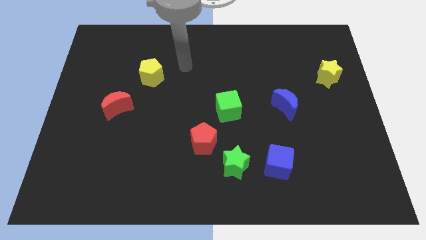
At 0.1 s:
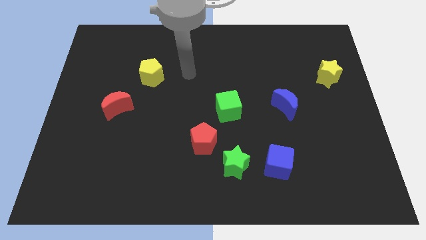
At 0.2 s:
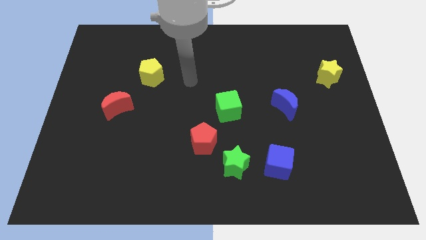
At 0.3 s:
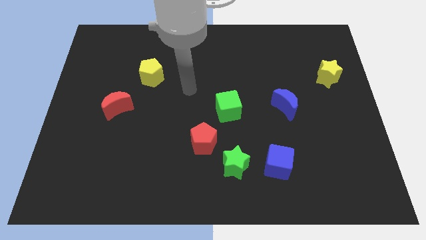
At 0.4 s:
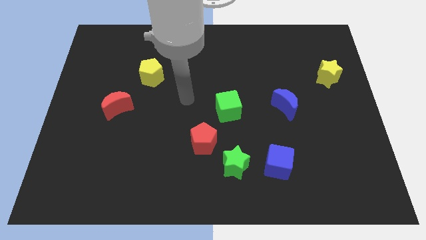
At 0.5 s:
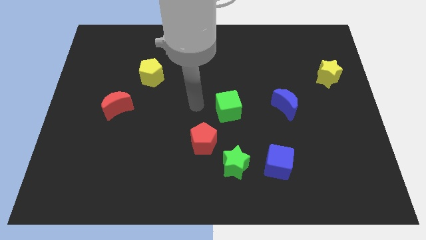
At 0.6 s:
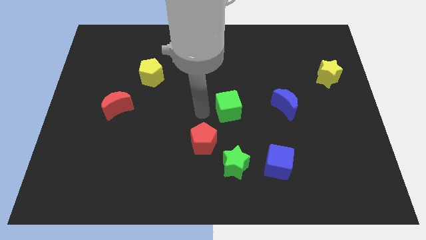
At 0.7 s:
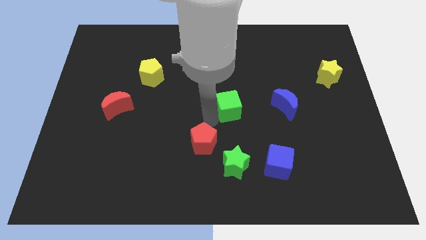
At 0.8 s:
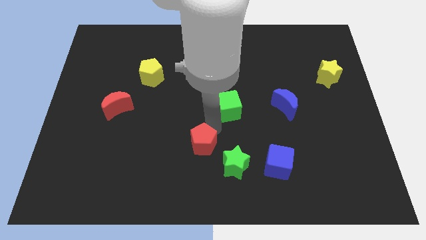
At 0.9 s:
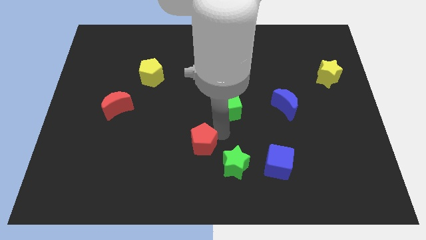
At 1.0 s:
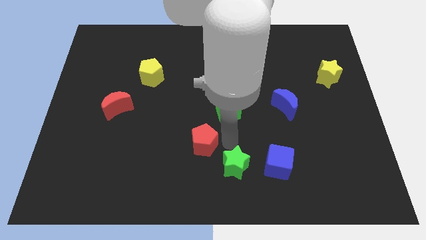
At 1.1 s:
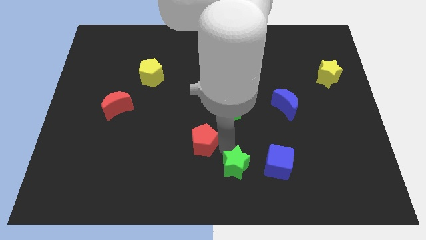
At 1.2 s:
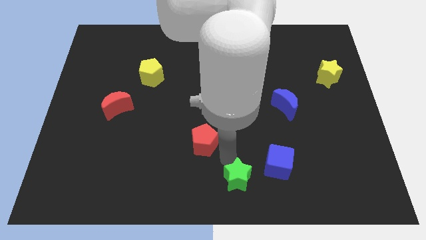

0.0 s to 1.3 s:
separate the red pentagon from the green star

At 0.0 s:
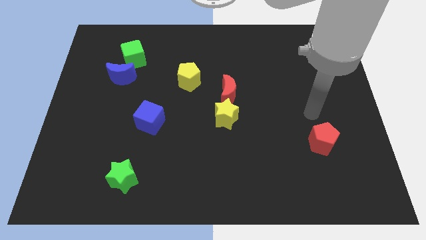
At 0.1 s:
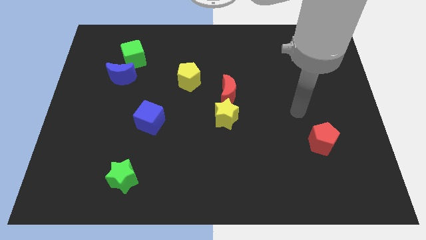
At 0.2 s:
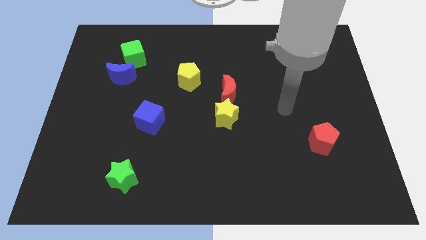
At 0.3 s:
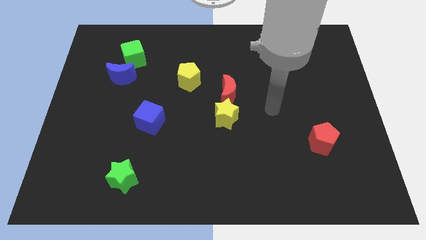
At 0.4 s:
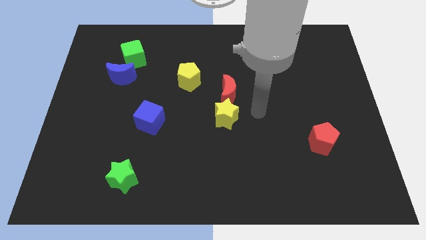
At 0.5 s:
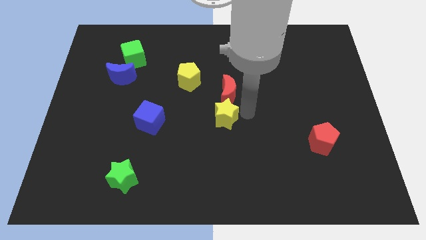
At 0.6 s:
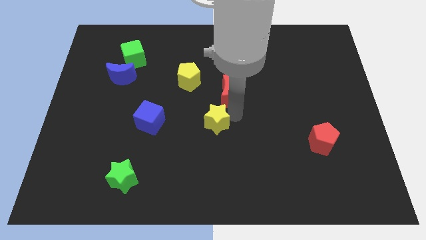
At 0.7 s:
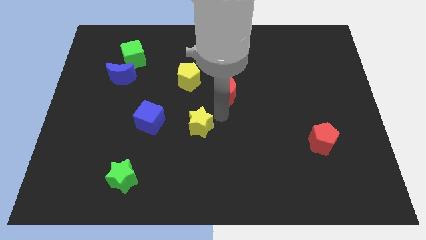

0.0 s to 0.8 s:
move the red moon away from the yellow star

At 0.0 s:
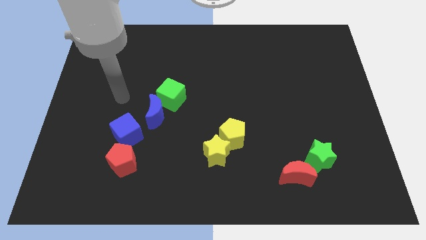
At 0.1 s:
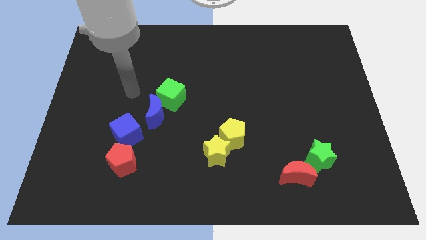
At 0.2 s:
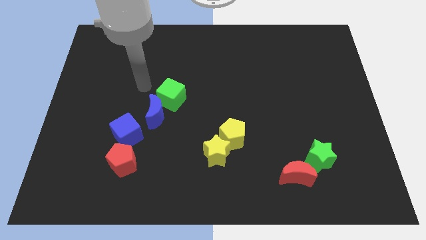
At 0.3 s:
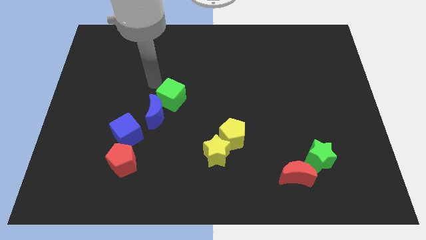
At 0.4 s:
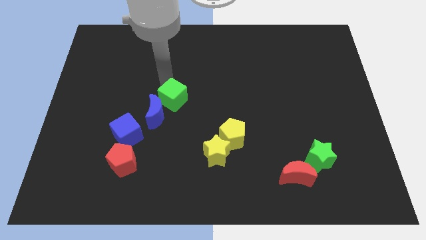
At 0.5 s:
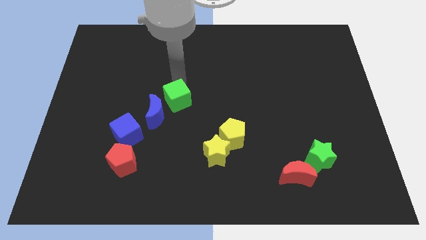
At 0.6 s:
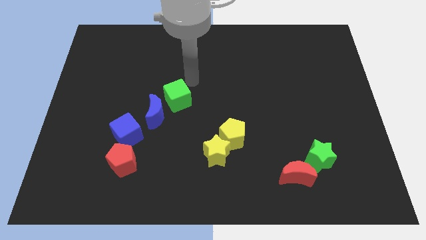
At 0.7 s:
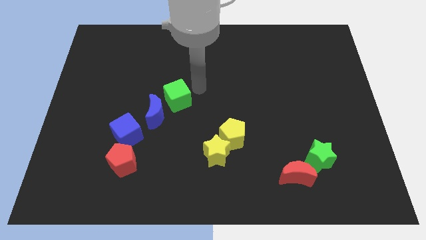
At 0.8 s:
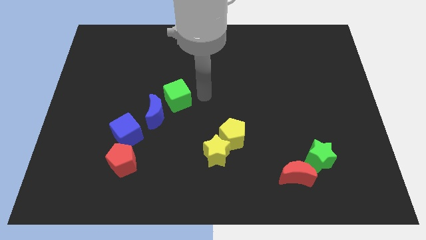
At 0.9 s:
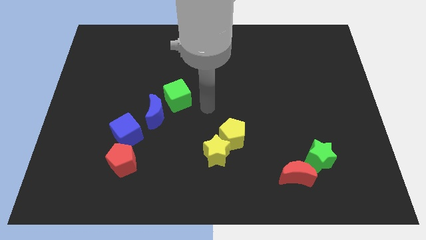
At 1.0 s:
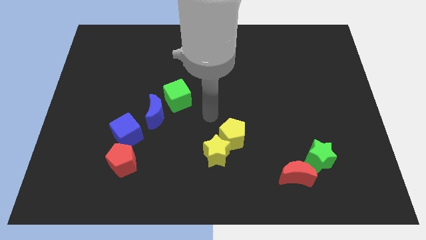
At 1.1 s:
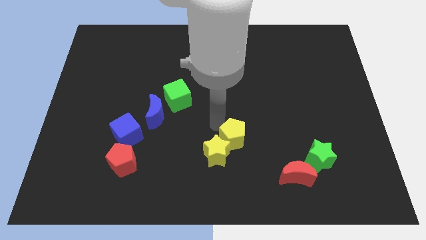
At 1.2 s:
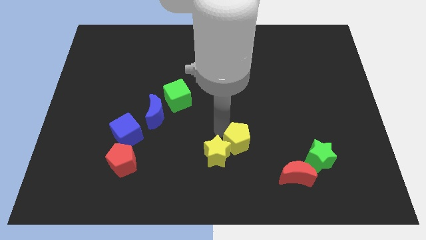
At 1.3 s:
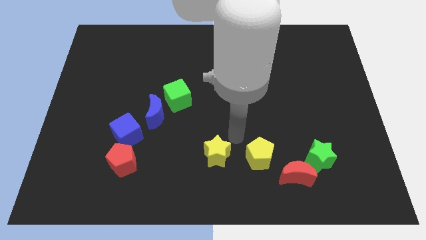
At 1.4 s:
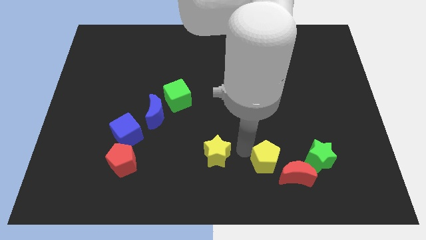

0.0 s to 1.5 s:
move the yellow star away from the yellow pentagon

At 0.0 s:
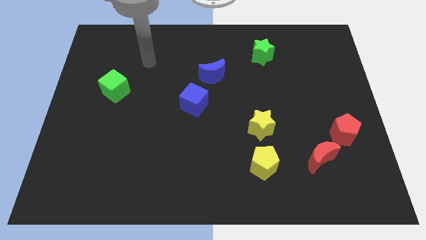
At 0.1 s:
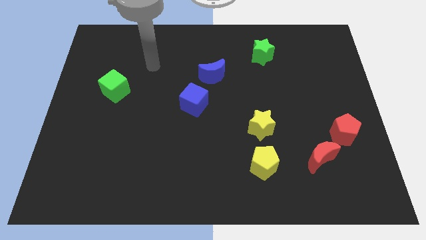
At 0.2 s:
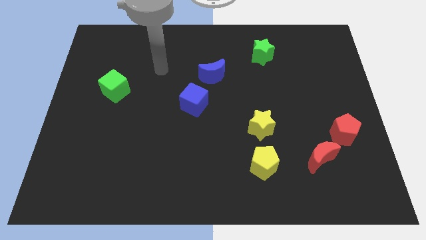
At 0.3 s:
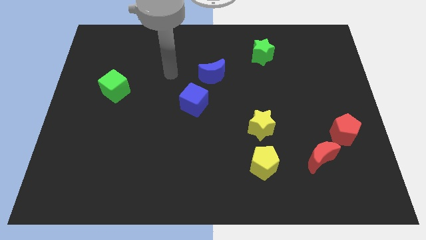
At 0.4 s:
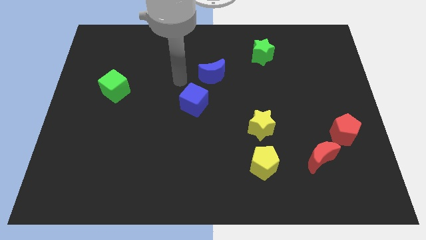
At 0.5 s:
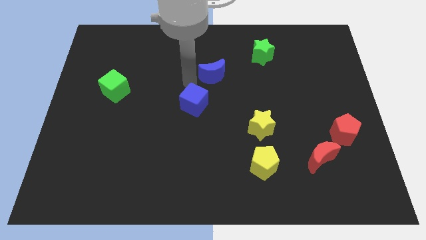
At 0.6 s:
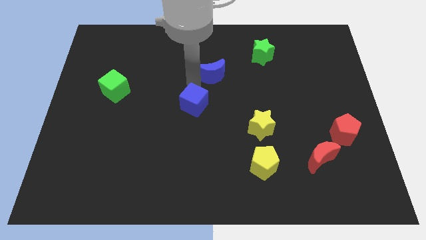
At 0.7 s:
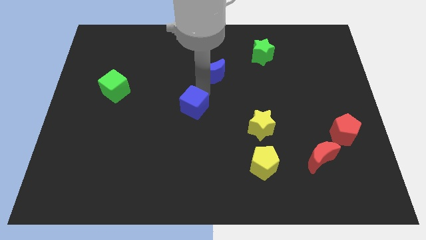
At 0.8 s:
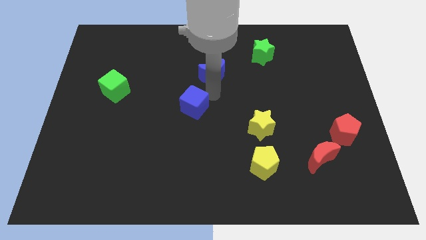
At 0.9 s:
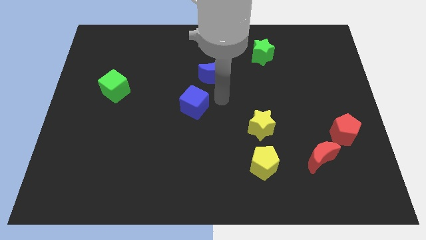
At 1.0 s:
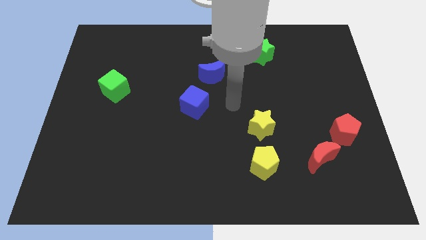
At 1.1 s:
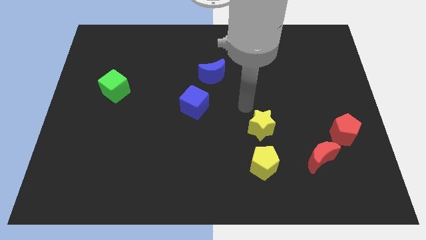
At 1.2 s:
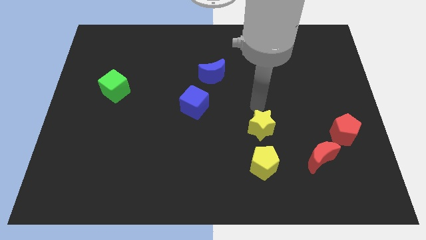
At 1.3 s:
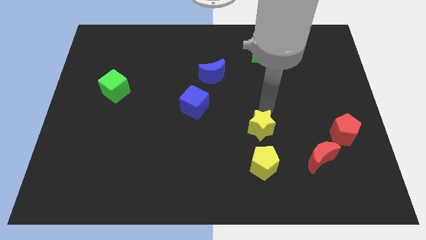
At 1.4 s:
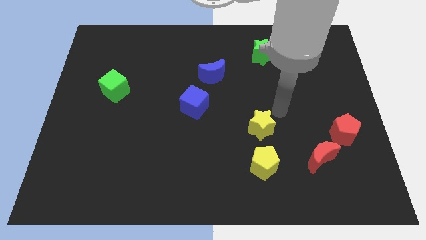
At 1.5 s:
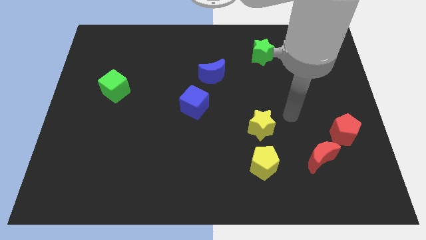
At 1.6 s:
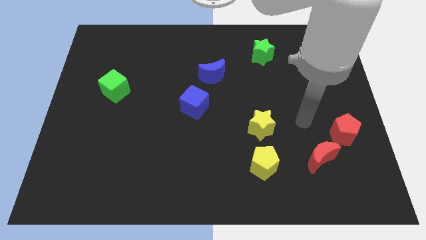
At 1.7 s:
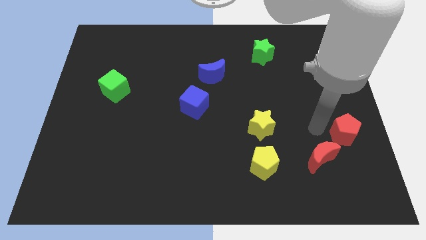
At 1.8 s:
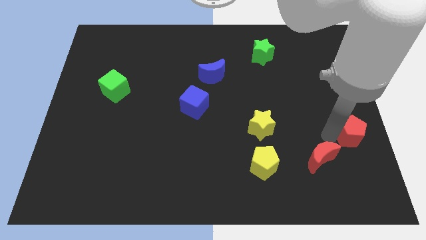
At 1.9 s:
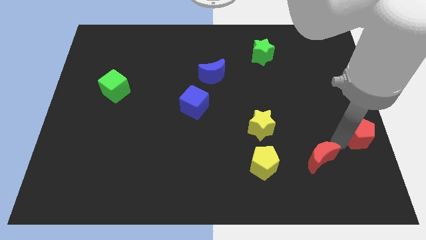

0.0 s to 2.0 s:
pull the red moon apart from the red pentagon

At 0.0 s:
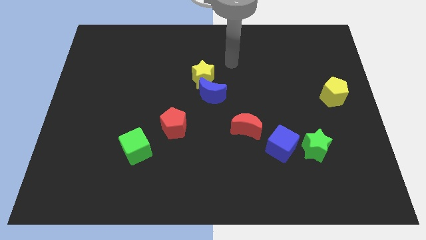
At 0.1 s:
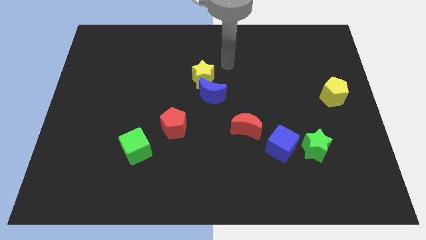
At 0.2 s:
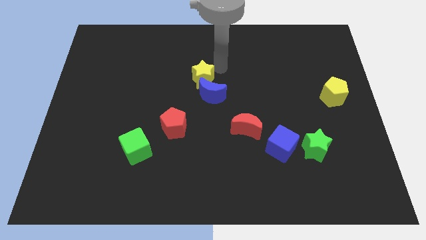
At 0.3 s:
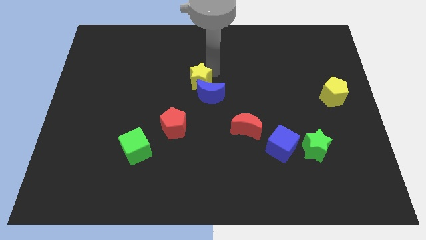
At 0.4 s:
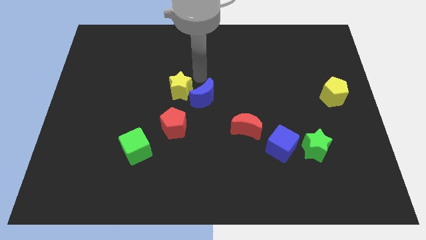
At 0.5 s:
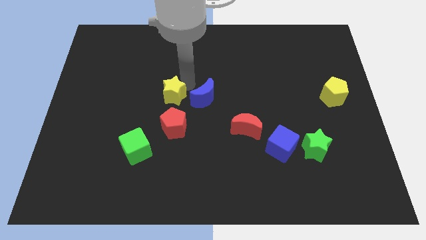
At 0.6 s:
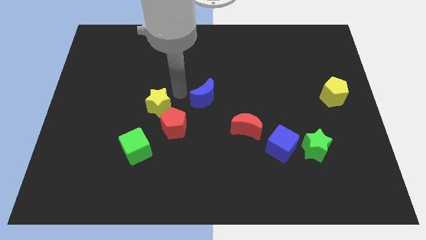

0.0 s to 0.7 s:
move the blue moon away from the yellow star

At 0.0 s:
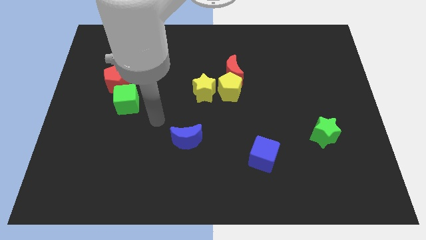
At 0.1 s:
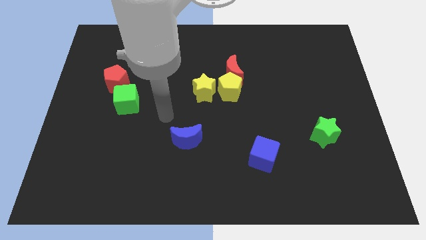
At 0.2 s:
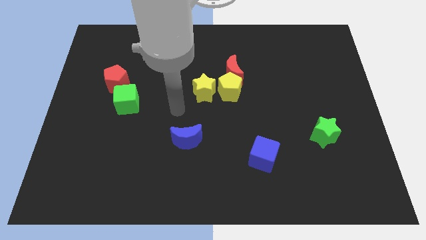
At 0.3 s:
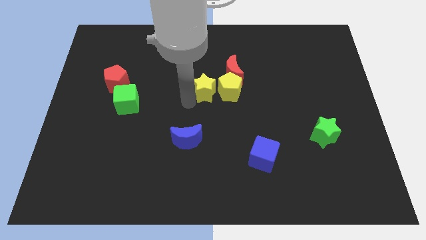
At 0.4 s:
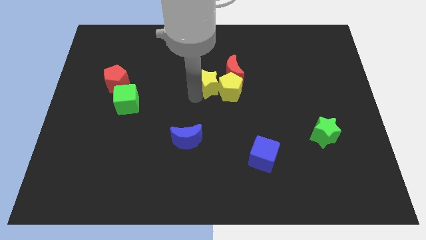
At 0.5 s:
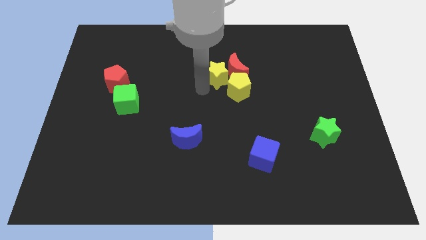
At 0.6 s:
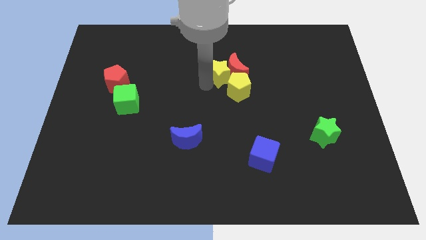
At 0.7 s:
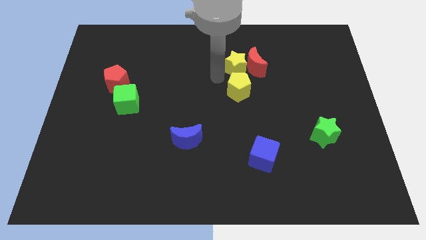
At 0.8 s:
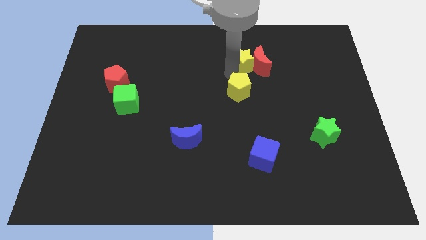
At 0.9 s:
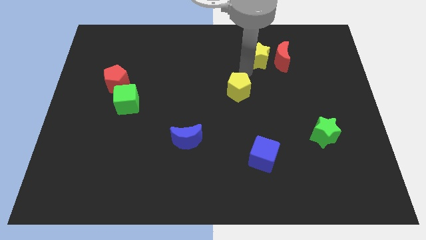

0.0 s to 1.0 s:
separate the yellow pentagon from the red moon and yellow star

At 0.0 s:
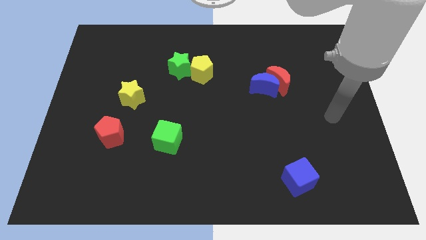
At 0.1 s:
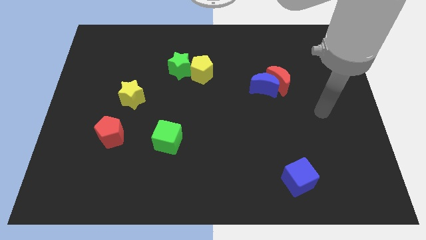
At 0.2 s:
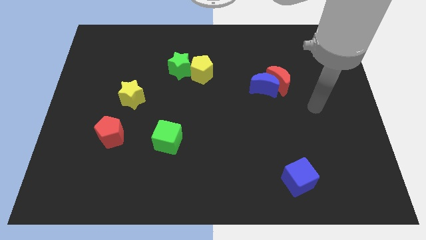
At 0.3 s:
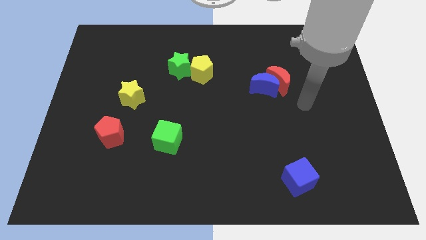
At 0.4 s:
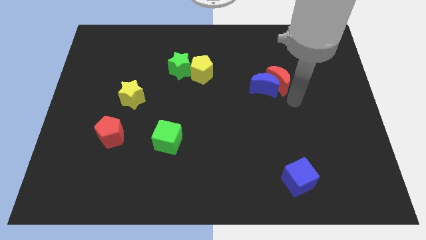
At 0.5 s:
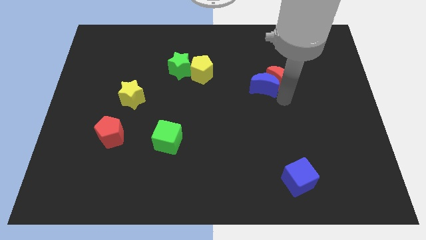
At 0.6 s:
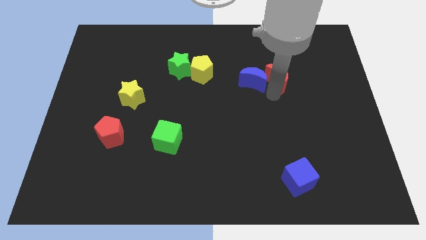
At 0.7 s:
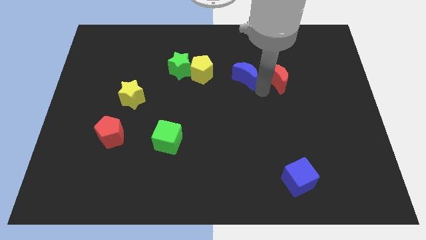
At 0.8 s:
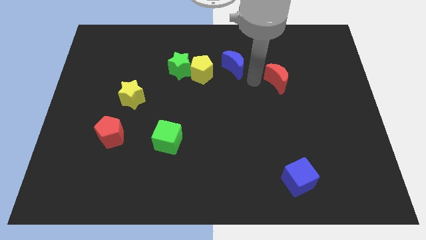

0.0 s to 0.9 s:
separate the red moon from the blue moon

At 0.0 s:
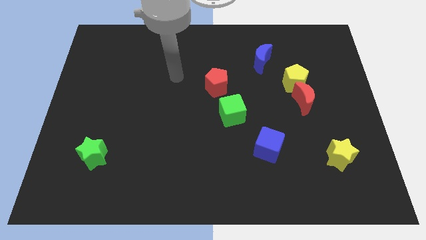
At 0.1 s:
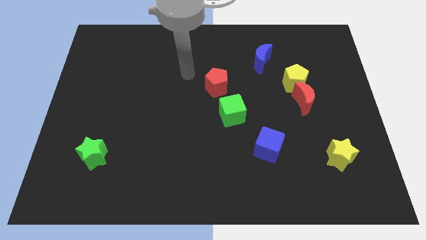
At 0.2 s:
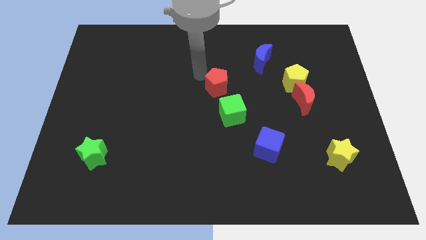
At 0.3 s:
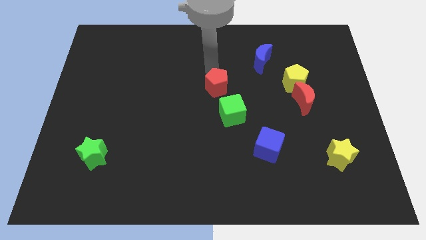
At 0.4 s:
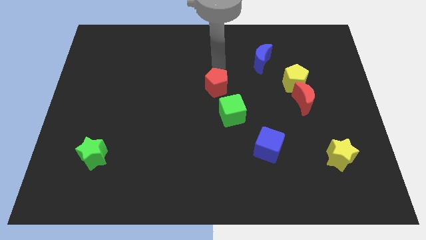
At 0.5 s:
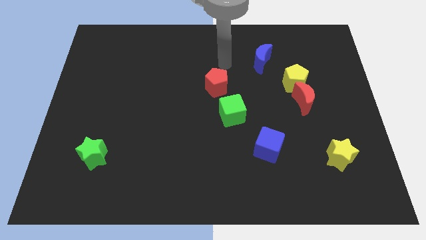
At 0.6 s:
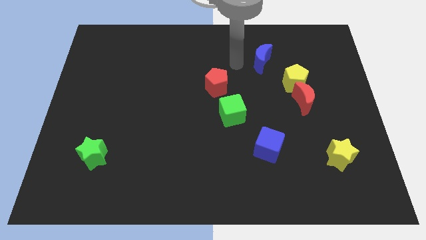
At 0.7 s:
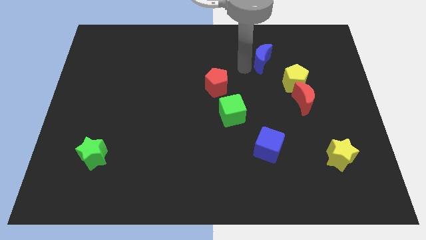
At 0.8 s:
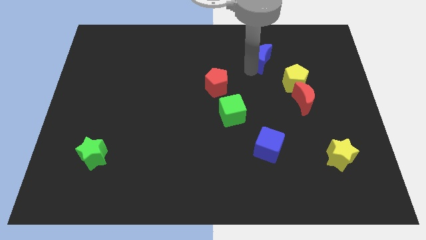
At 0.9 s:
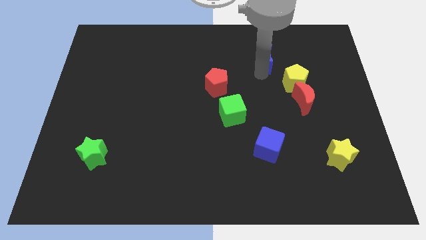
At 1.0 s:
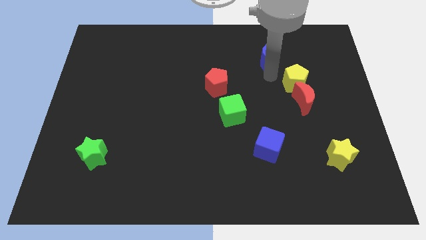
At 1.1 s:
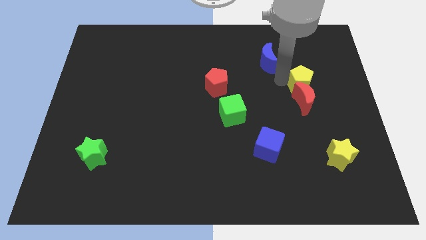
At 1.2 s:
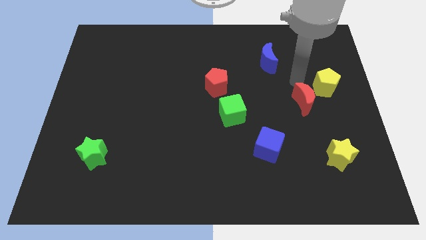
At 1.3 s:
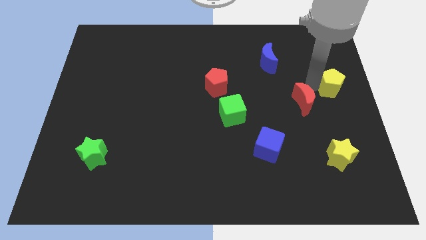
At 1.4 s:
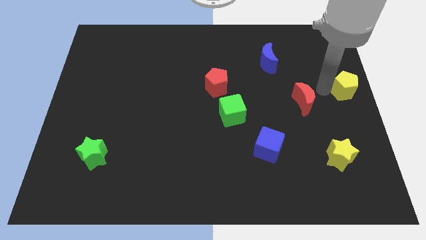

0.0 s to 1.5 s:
move the red moon away from the yellow pentagon
